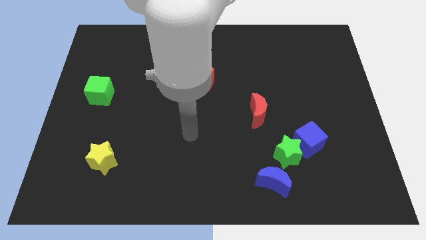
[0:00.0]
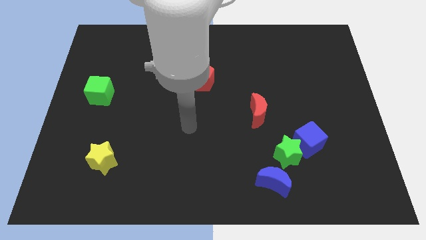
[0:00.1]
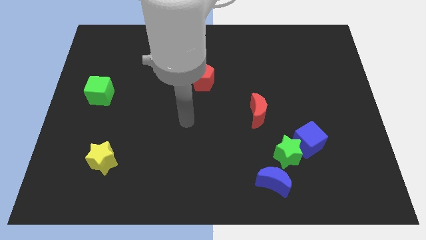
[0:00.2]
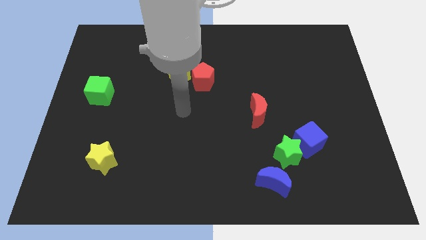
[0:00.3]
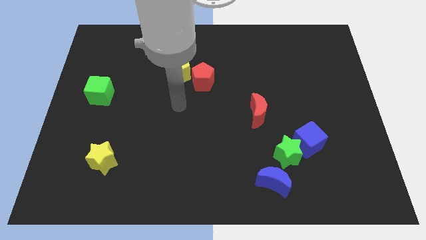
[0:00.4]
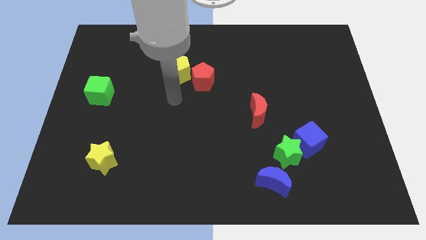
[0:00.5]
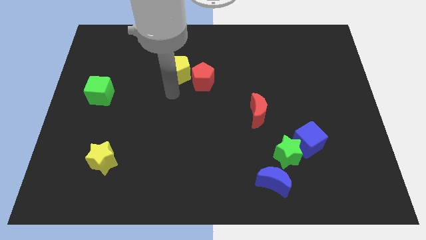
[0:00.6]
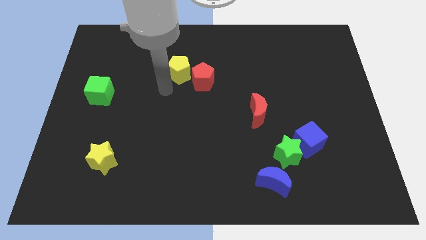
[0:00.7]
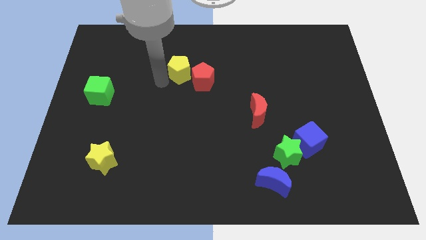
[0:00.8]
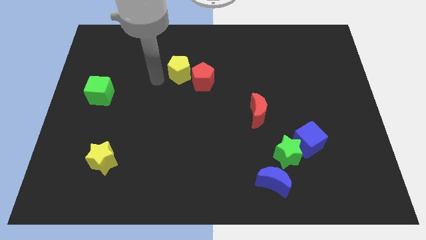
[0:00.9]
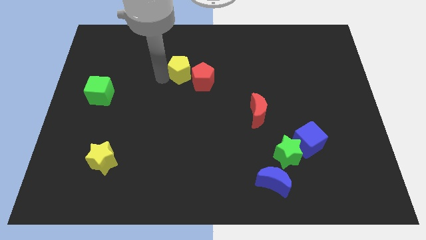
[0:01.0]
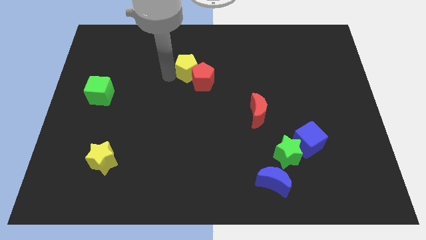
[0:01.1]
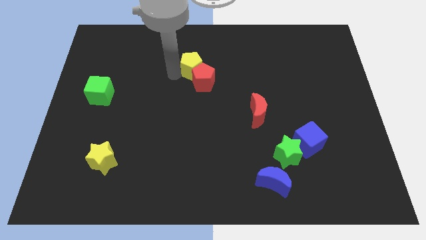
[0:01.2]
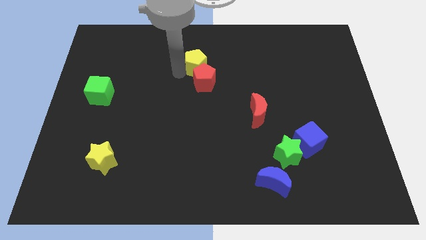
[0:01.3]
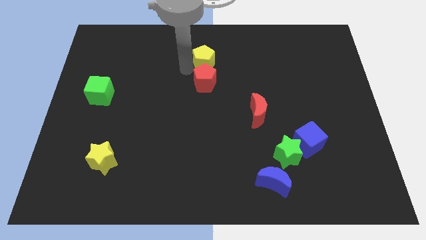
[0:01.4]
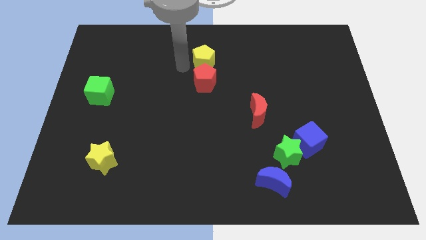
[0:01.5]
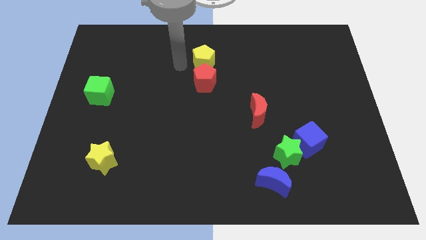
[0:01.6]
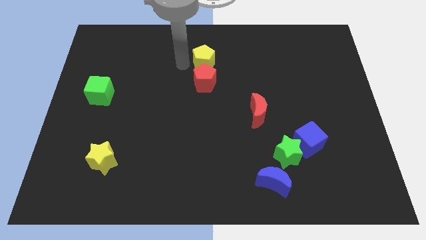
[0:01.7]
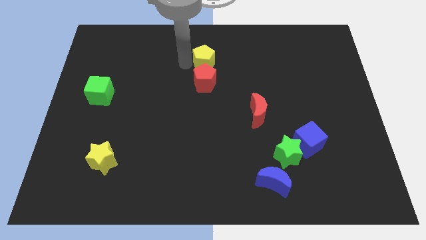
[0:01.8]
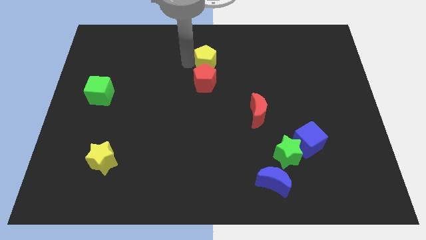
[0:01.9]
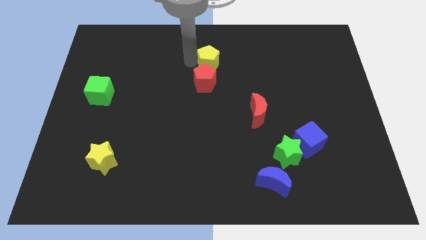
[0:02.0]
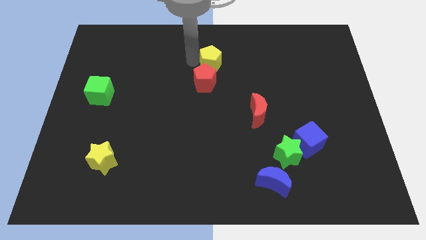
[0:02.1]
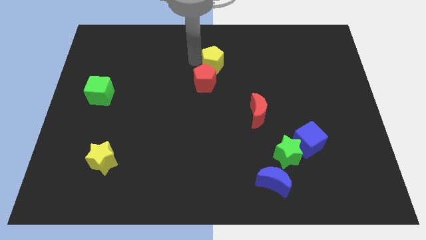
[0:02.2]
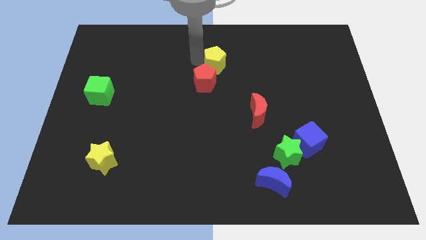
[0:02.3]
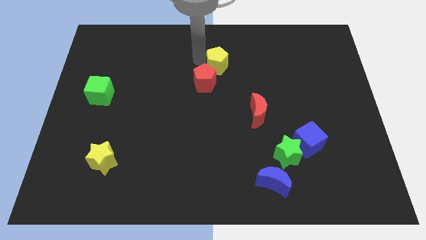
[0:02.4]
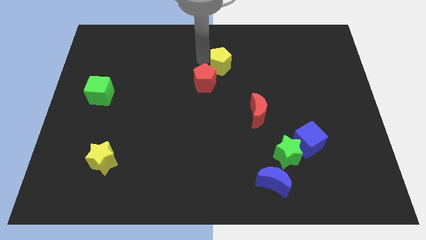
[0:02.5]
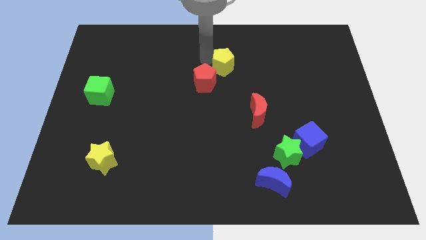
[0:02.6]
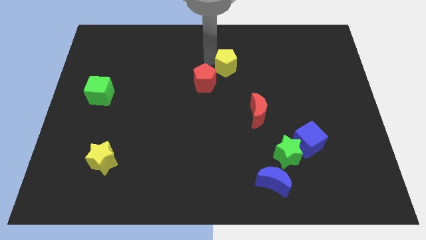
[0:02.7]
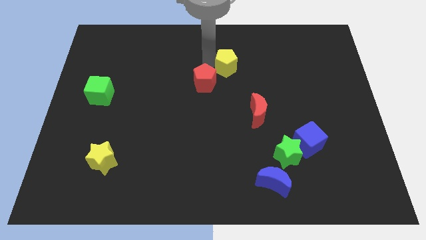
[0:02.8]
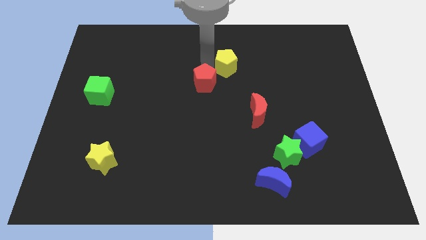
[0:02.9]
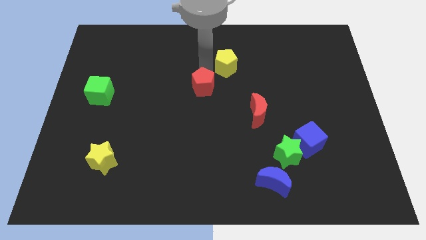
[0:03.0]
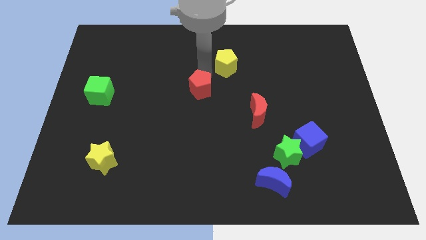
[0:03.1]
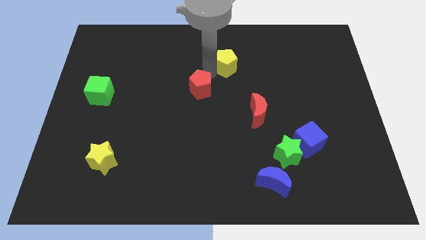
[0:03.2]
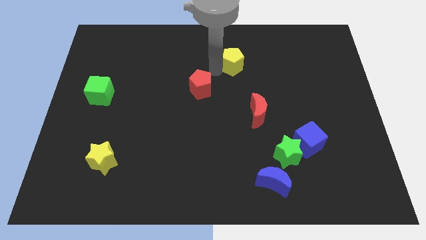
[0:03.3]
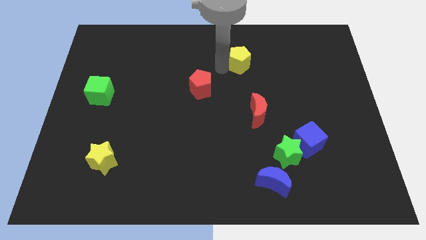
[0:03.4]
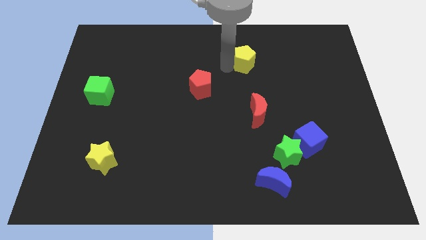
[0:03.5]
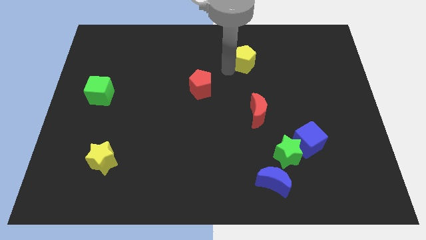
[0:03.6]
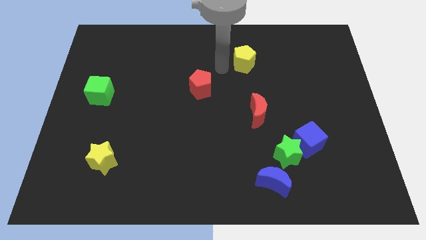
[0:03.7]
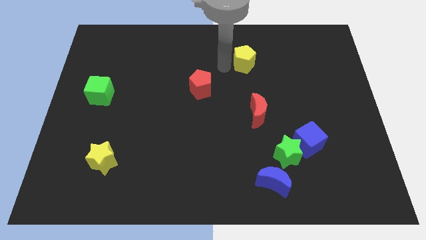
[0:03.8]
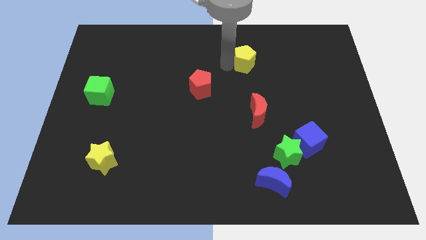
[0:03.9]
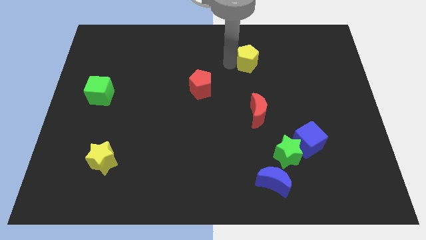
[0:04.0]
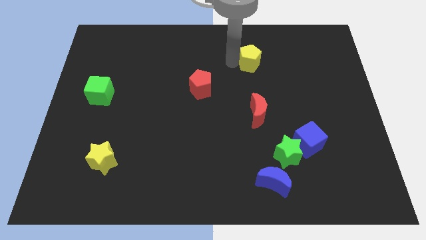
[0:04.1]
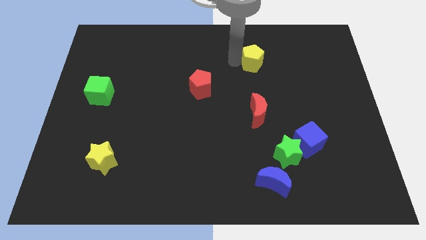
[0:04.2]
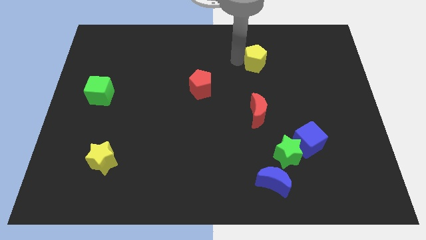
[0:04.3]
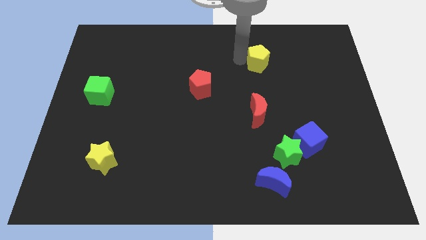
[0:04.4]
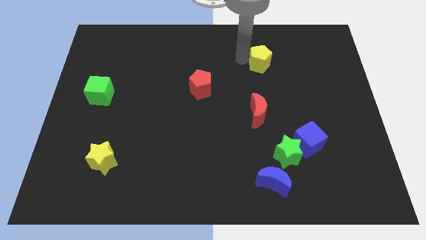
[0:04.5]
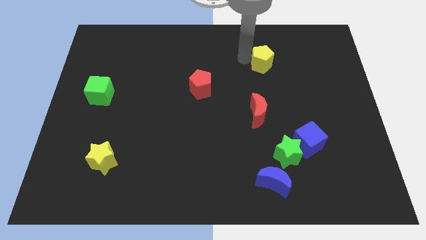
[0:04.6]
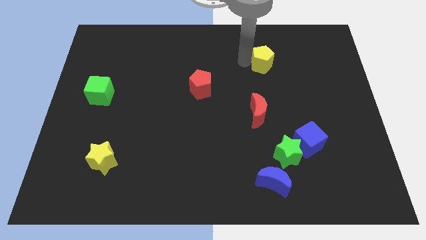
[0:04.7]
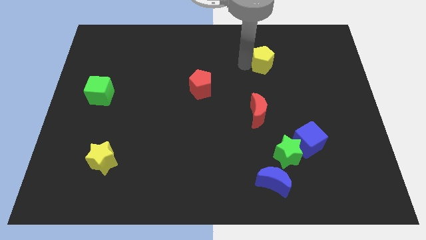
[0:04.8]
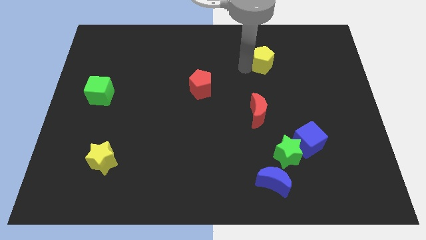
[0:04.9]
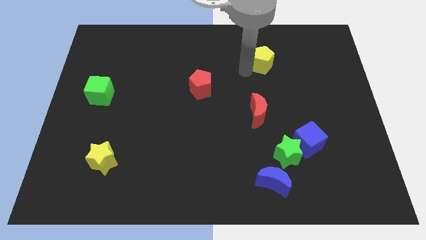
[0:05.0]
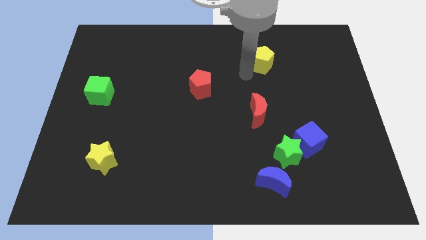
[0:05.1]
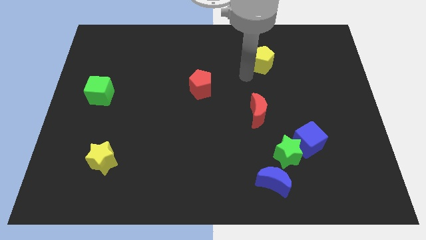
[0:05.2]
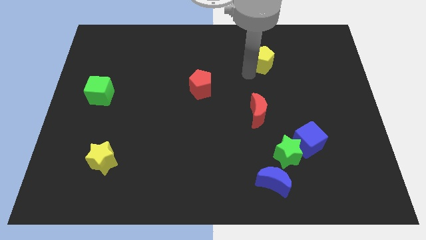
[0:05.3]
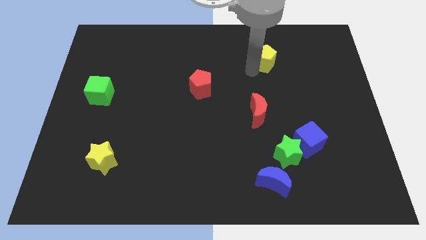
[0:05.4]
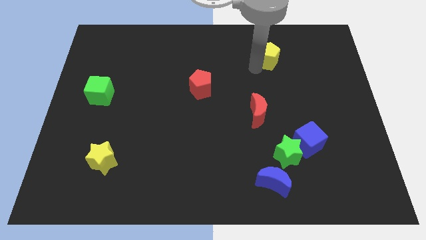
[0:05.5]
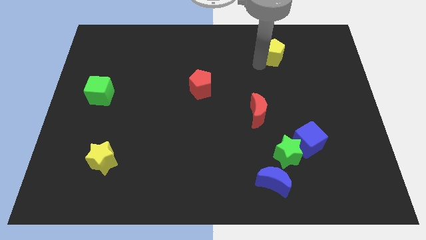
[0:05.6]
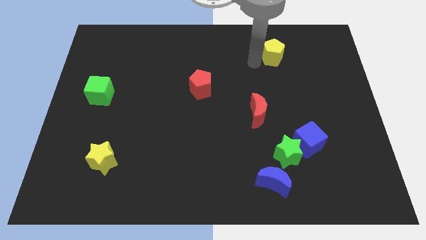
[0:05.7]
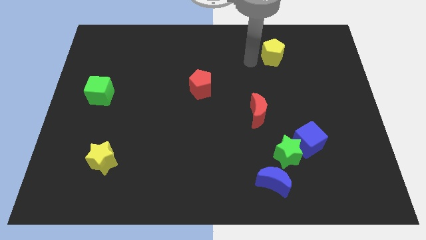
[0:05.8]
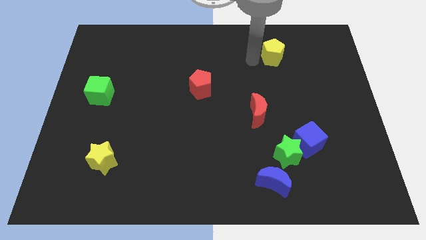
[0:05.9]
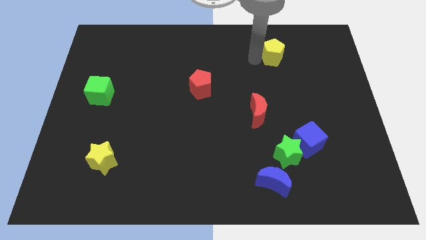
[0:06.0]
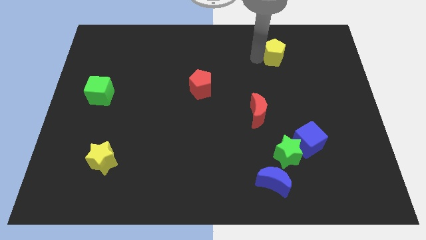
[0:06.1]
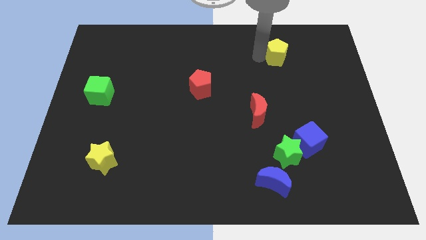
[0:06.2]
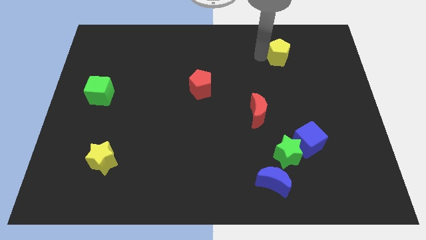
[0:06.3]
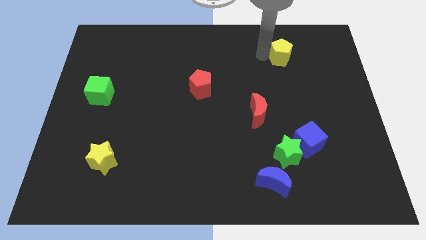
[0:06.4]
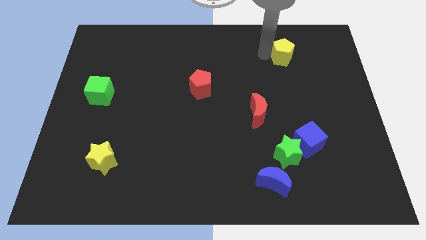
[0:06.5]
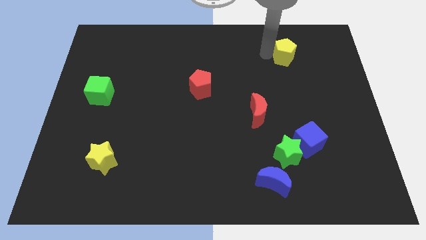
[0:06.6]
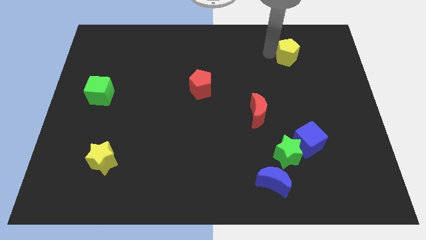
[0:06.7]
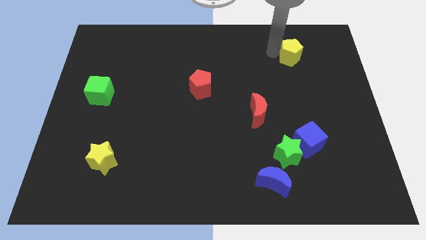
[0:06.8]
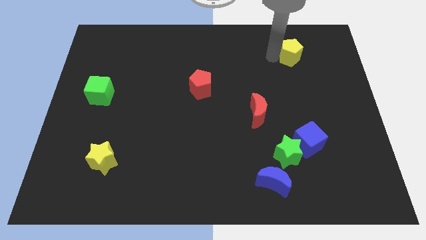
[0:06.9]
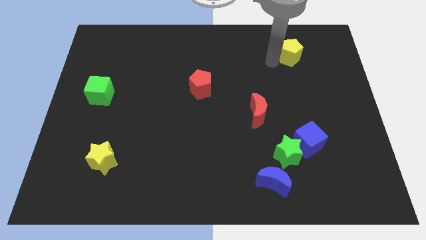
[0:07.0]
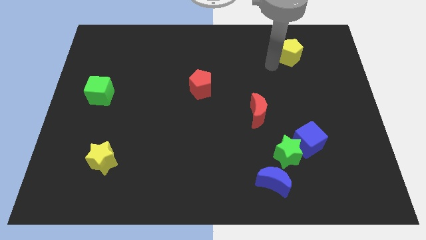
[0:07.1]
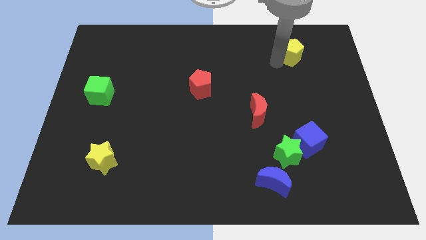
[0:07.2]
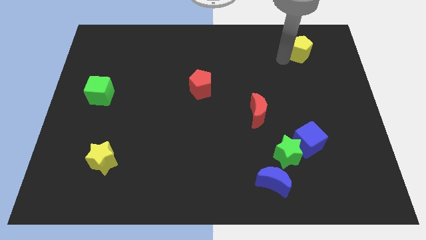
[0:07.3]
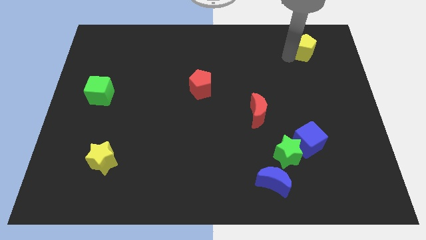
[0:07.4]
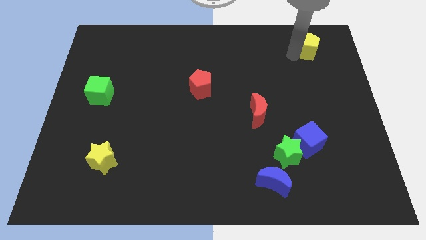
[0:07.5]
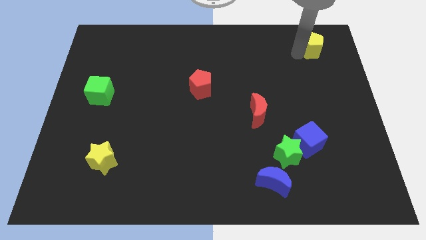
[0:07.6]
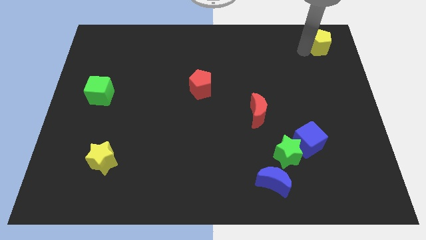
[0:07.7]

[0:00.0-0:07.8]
move the yellow pentagon to the top right
